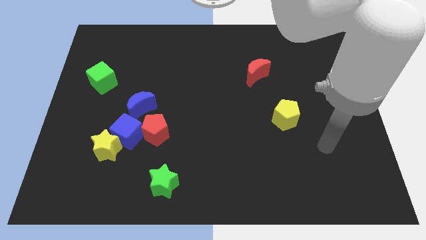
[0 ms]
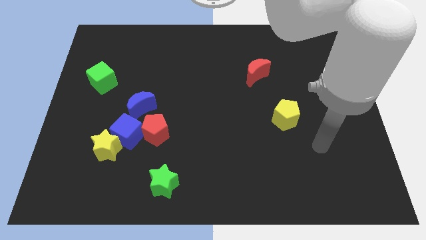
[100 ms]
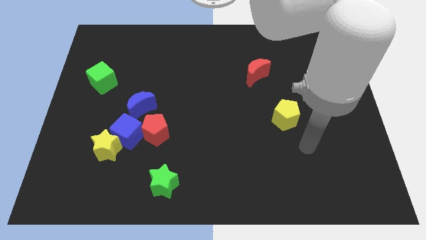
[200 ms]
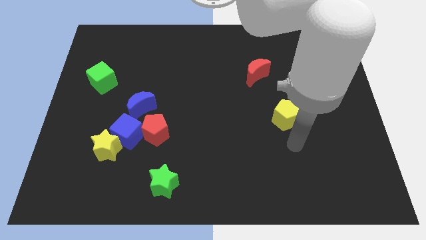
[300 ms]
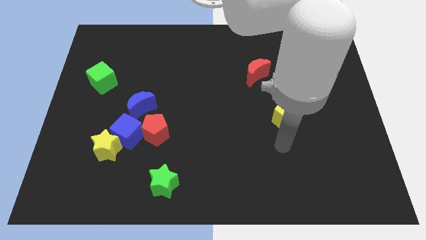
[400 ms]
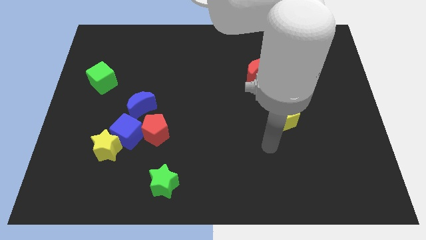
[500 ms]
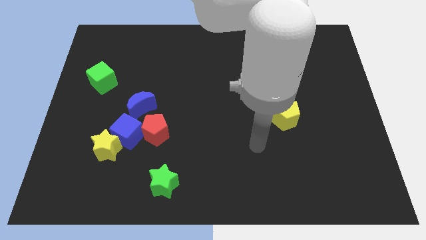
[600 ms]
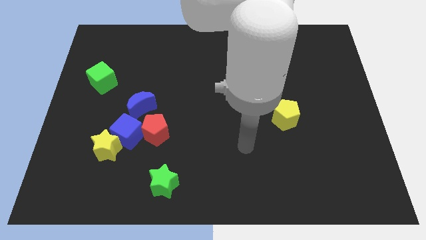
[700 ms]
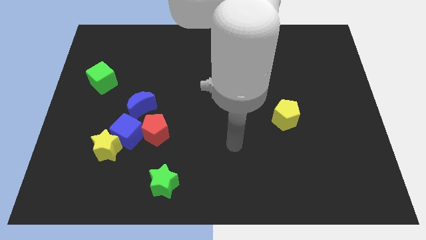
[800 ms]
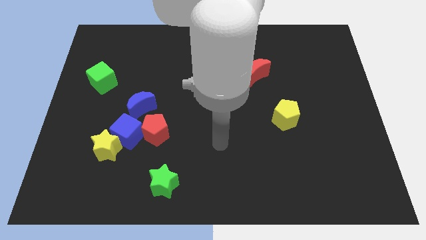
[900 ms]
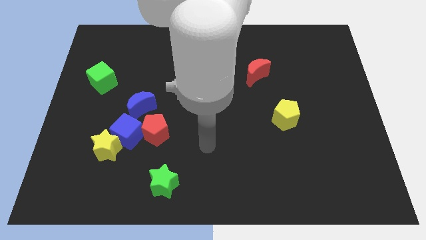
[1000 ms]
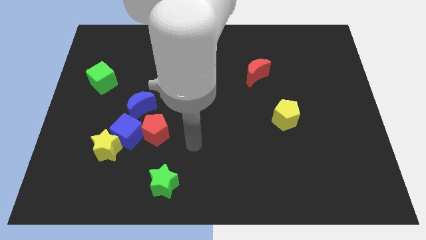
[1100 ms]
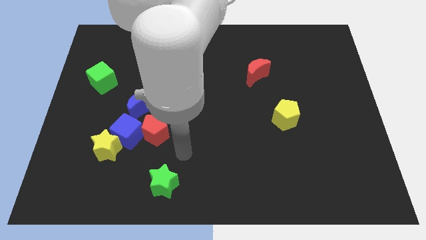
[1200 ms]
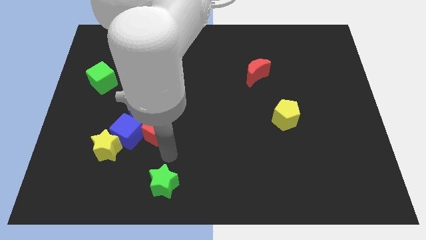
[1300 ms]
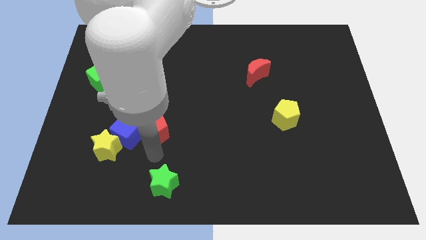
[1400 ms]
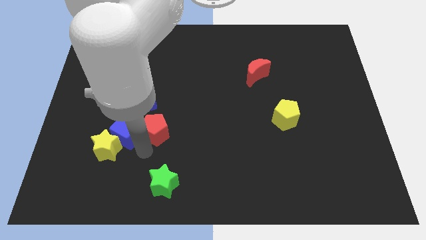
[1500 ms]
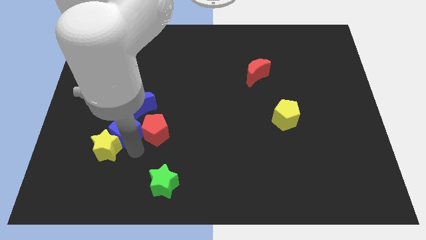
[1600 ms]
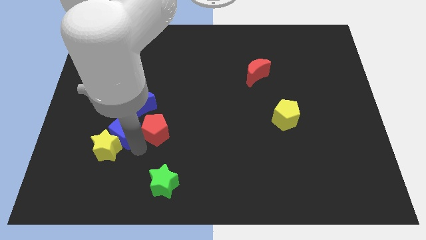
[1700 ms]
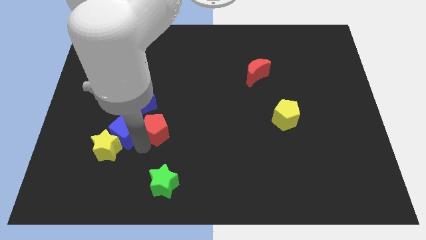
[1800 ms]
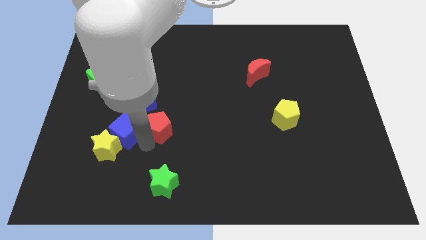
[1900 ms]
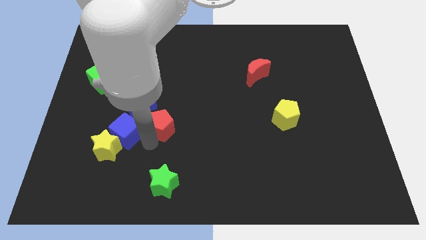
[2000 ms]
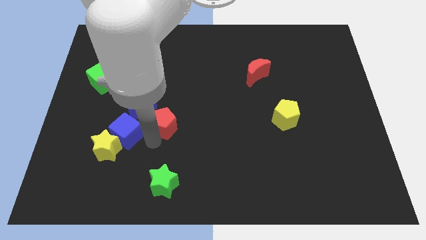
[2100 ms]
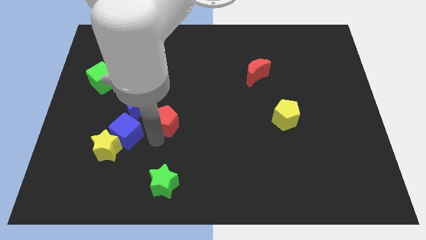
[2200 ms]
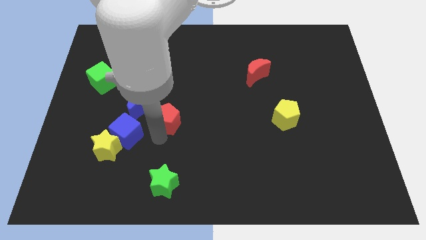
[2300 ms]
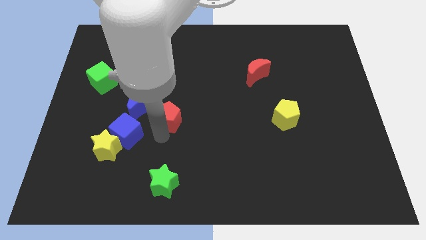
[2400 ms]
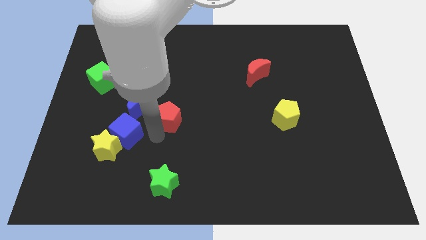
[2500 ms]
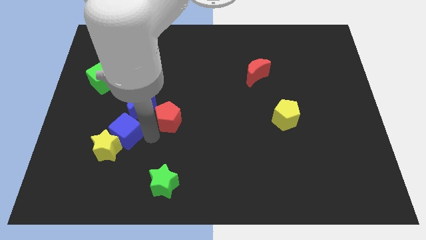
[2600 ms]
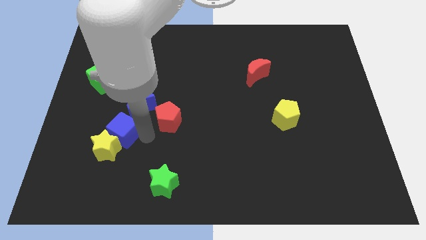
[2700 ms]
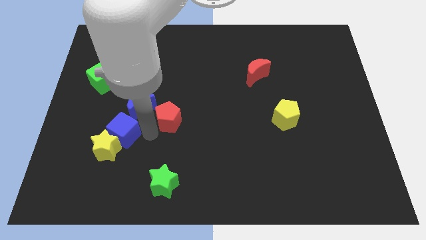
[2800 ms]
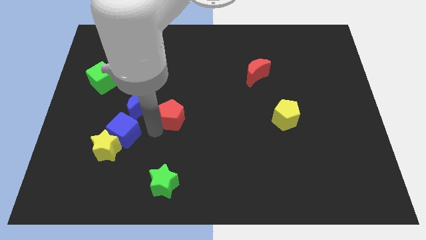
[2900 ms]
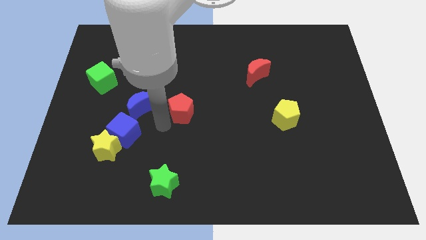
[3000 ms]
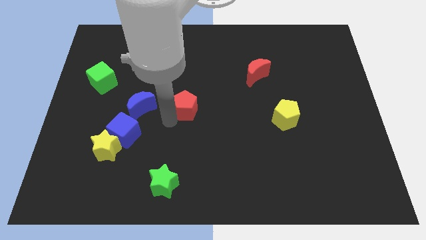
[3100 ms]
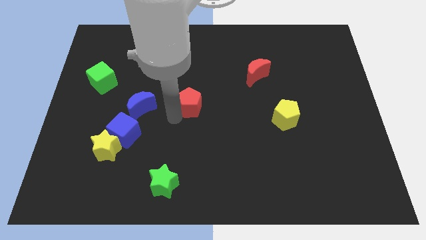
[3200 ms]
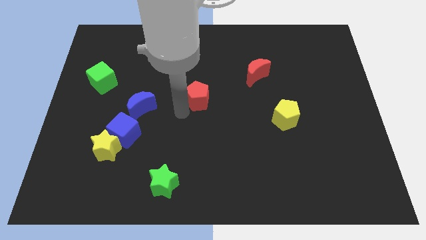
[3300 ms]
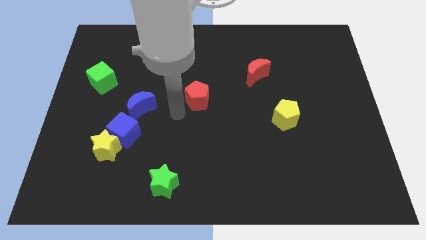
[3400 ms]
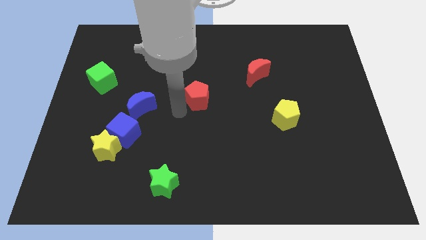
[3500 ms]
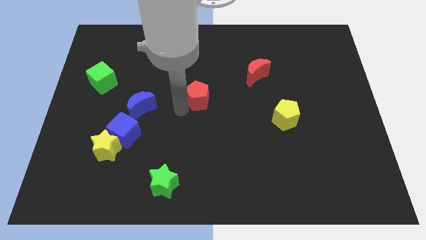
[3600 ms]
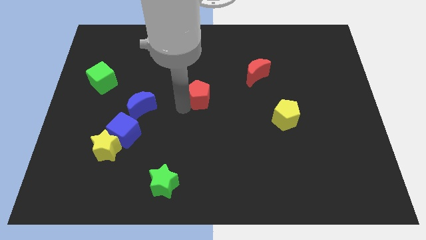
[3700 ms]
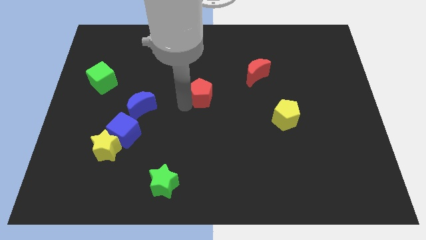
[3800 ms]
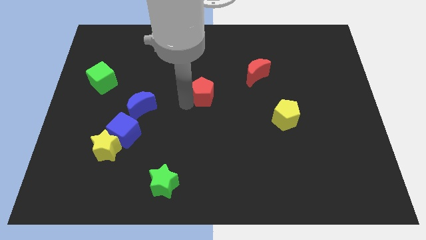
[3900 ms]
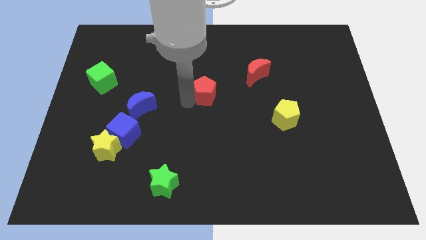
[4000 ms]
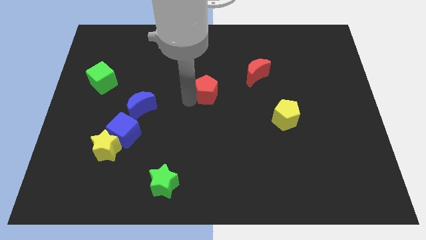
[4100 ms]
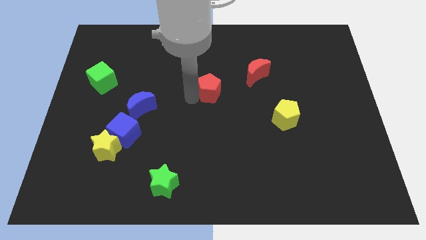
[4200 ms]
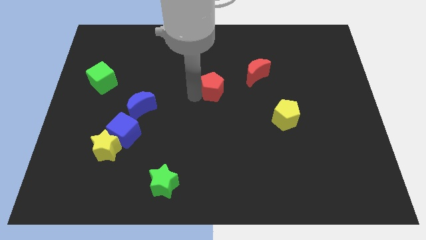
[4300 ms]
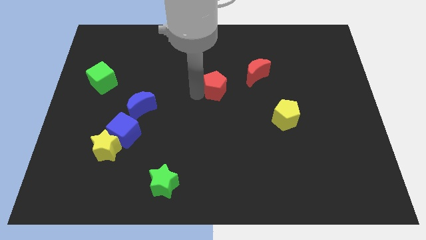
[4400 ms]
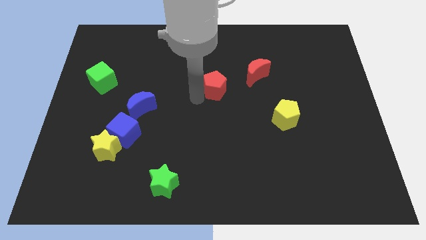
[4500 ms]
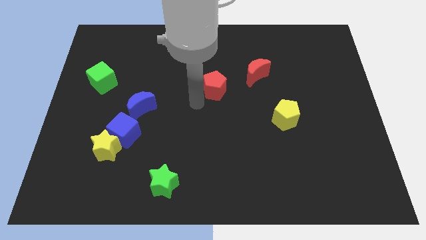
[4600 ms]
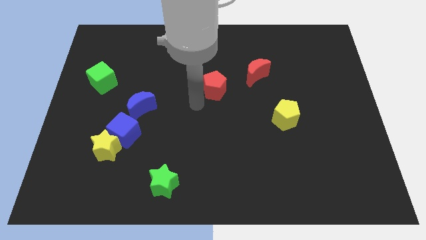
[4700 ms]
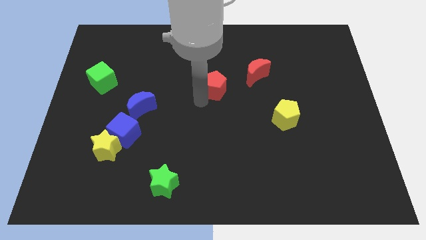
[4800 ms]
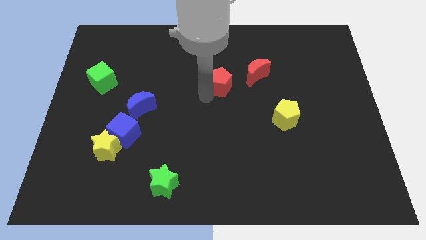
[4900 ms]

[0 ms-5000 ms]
move the red pentagon upwards and right diagonally

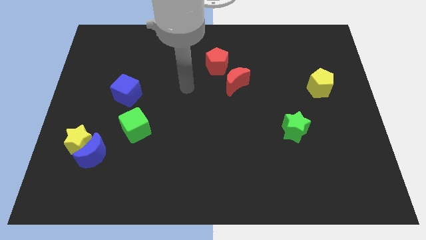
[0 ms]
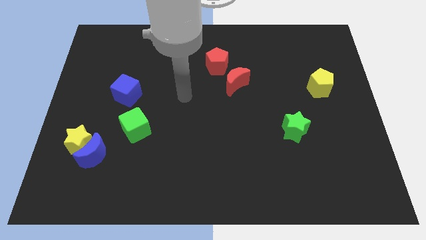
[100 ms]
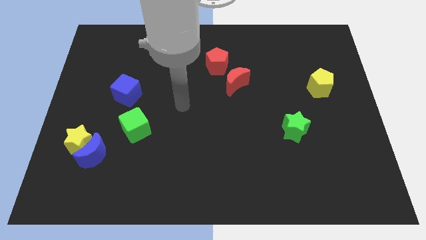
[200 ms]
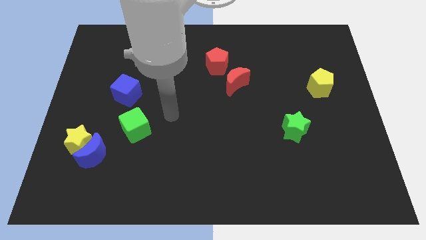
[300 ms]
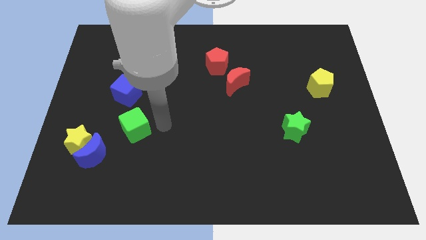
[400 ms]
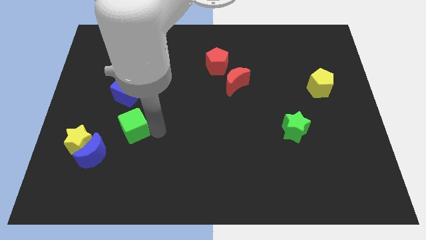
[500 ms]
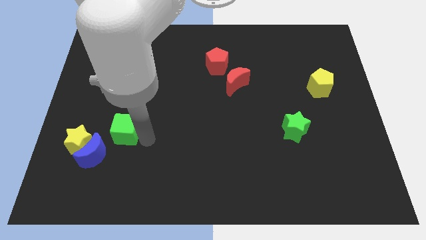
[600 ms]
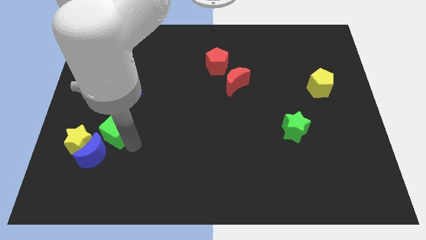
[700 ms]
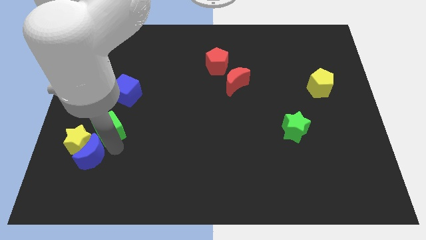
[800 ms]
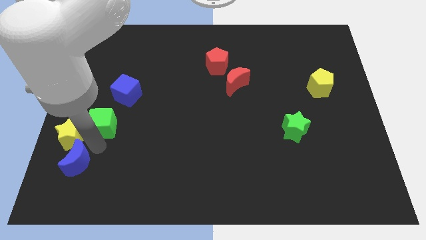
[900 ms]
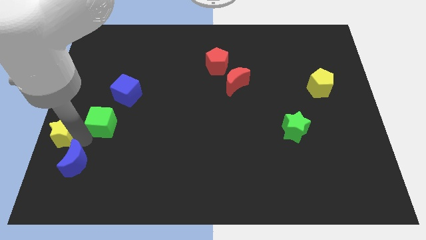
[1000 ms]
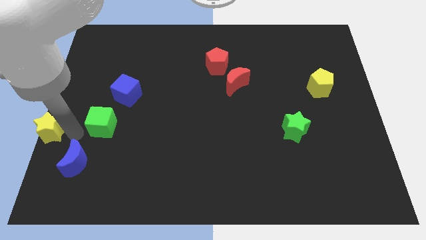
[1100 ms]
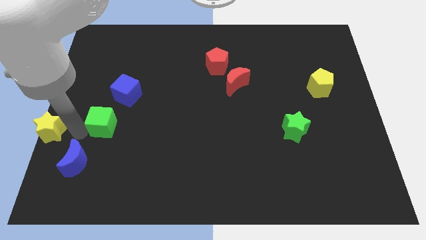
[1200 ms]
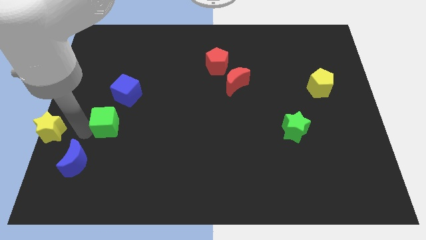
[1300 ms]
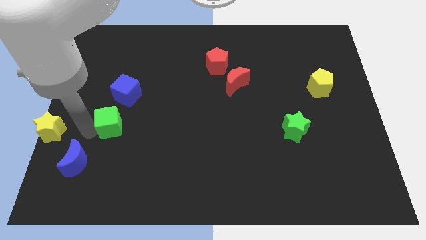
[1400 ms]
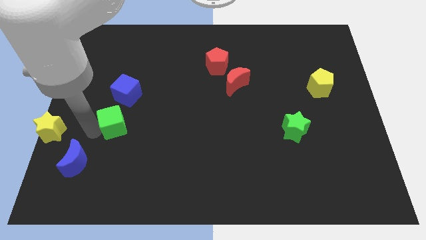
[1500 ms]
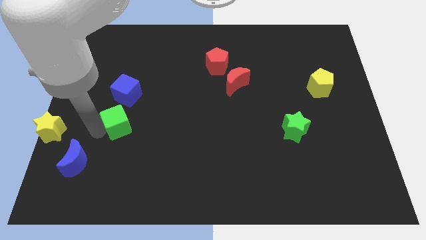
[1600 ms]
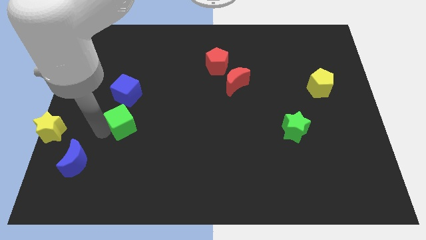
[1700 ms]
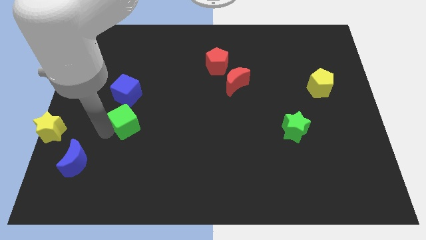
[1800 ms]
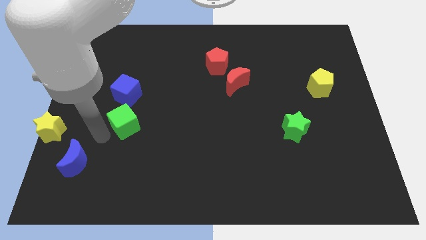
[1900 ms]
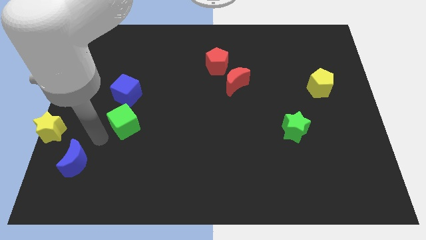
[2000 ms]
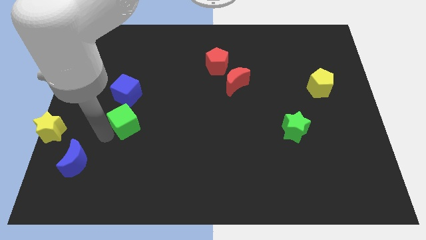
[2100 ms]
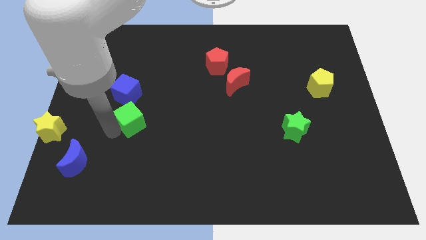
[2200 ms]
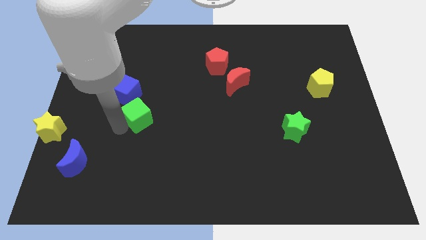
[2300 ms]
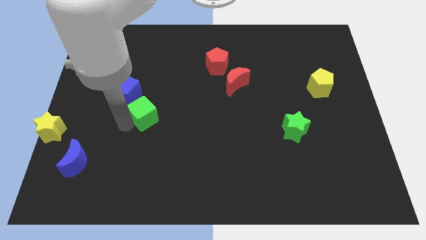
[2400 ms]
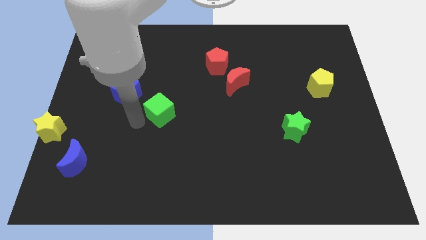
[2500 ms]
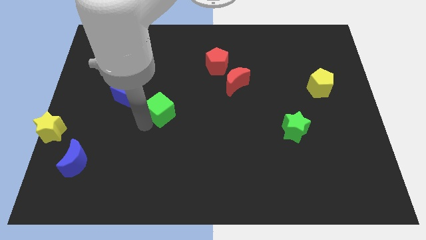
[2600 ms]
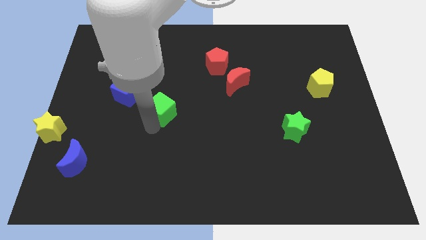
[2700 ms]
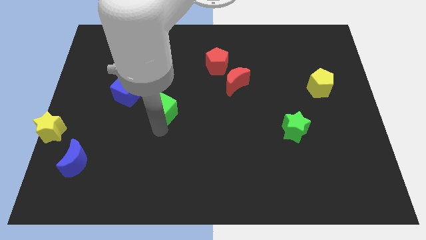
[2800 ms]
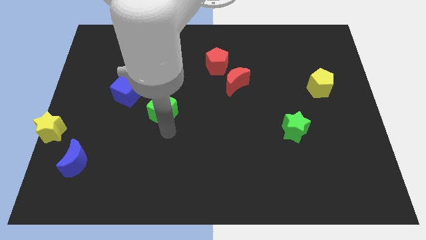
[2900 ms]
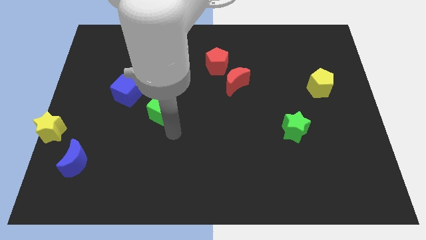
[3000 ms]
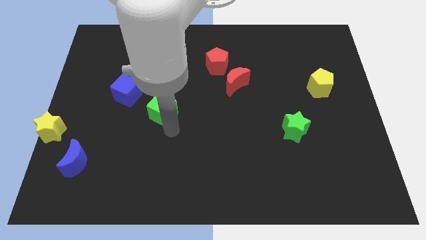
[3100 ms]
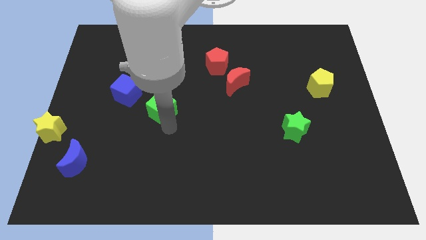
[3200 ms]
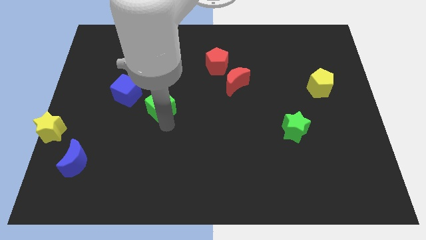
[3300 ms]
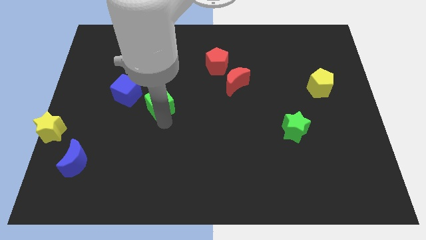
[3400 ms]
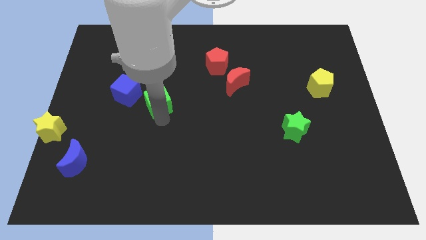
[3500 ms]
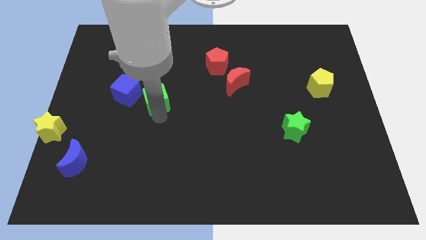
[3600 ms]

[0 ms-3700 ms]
move the green cube up a bit
